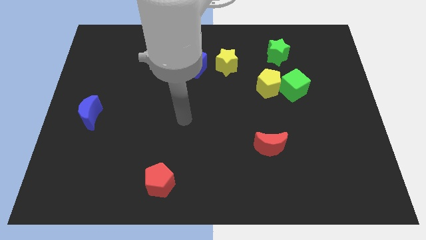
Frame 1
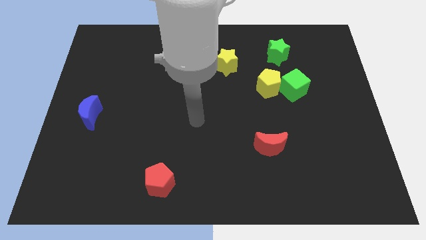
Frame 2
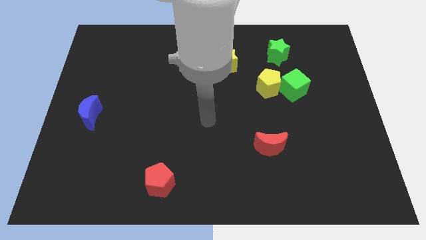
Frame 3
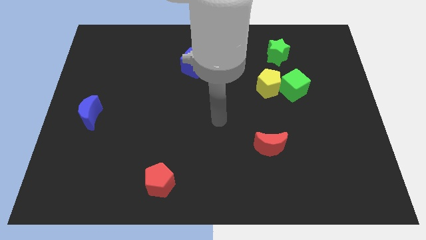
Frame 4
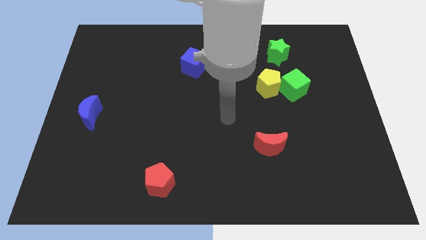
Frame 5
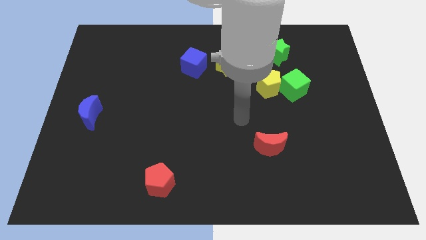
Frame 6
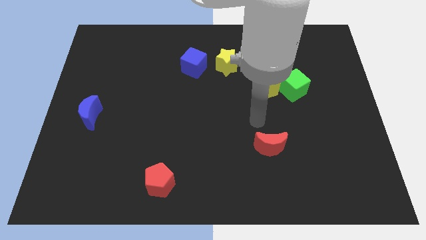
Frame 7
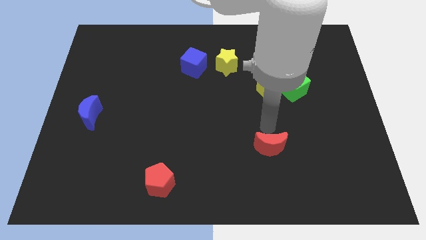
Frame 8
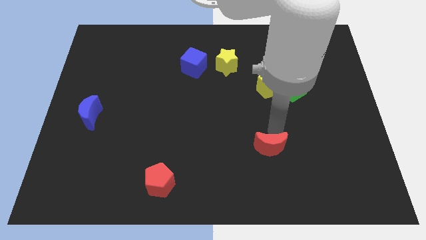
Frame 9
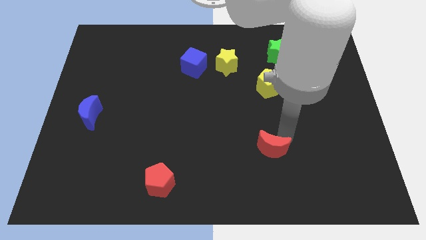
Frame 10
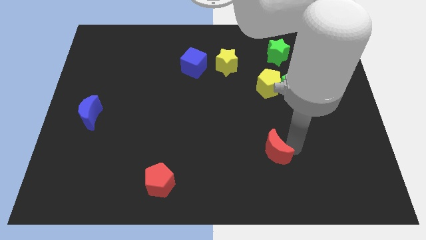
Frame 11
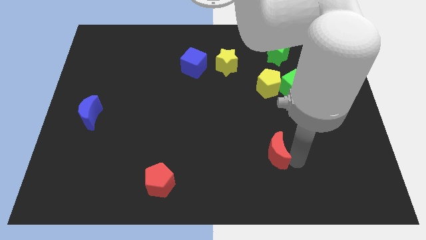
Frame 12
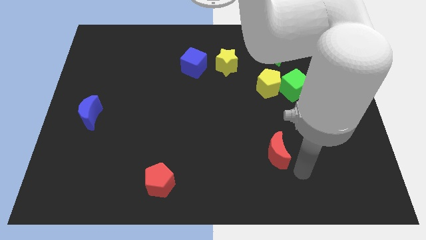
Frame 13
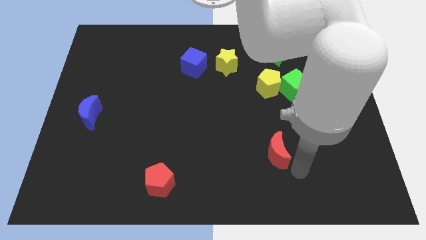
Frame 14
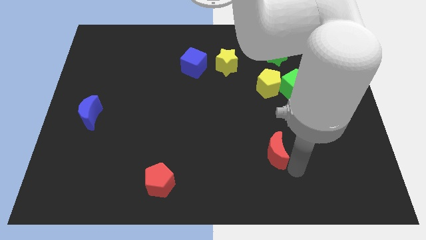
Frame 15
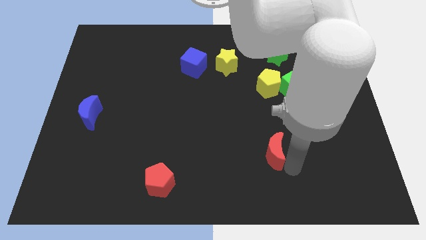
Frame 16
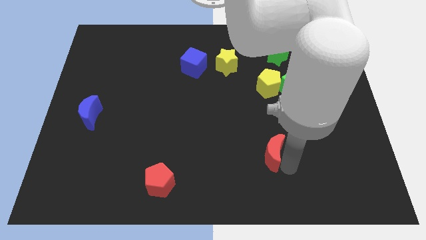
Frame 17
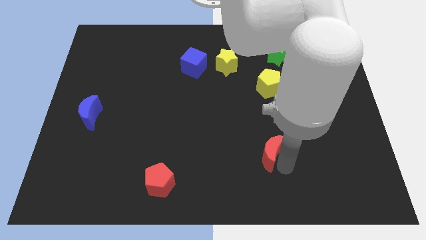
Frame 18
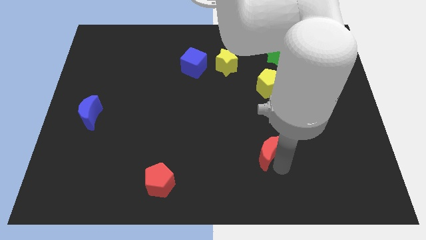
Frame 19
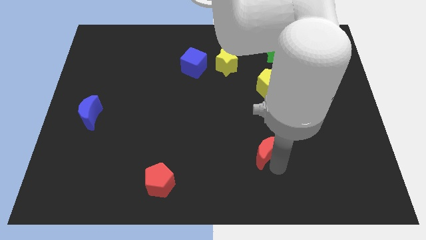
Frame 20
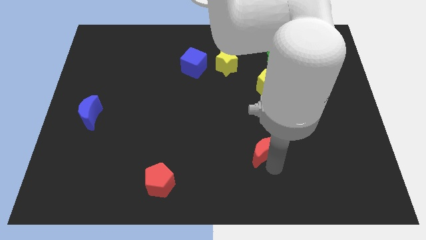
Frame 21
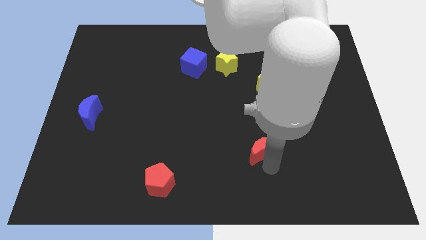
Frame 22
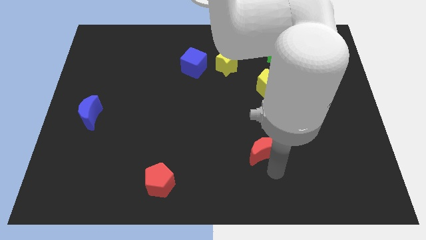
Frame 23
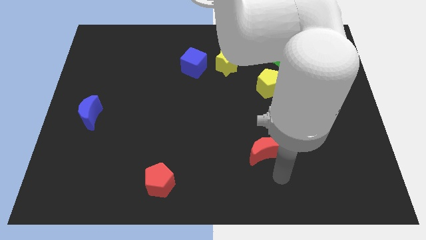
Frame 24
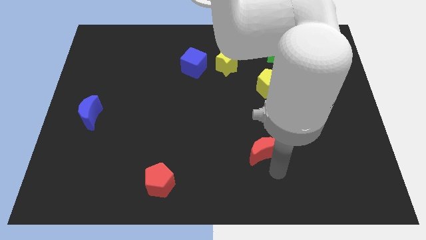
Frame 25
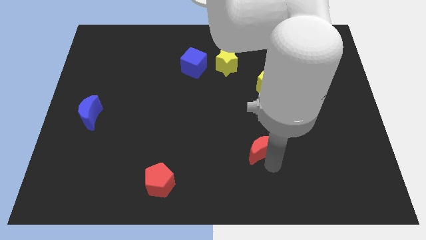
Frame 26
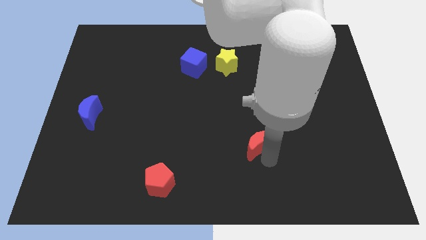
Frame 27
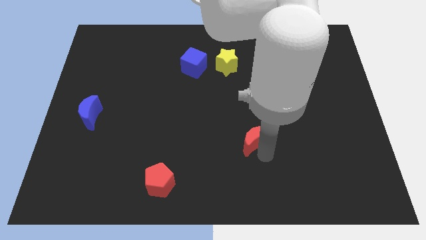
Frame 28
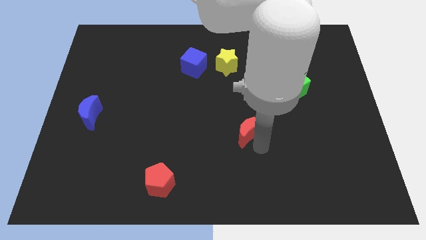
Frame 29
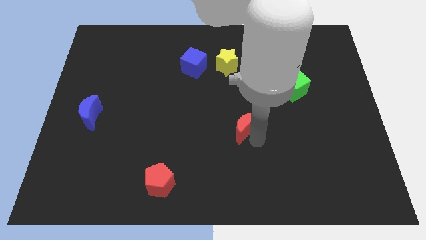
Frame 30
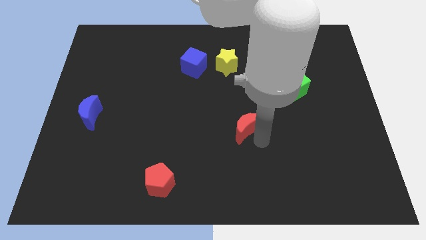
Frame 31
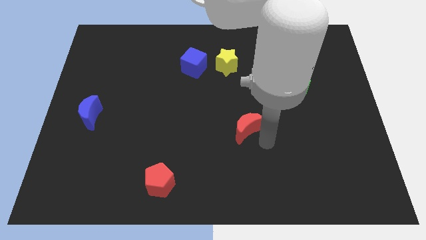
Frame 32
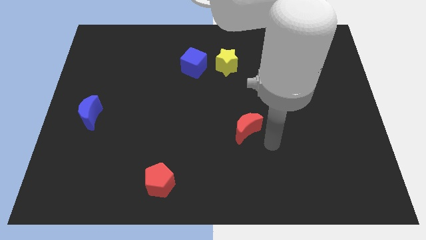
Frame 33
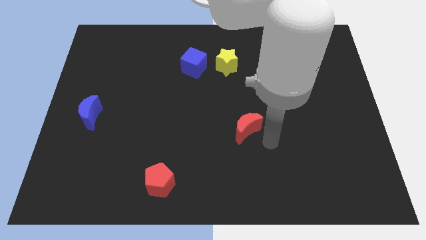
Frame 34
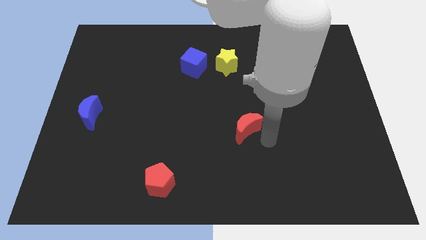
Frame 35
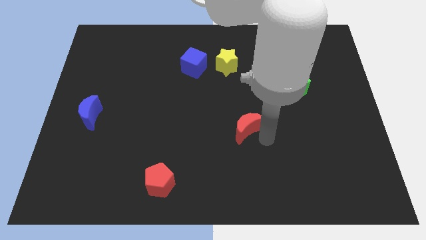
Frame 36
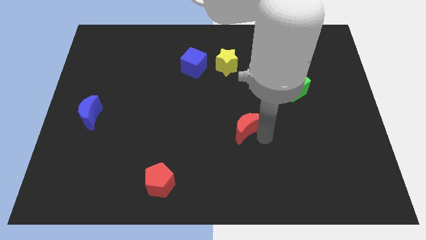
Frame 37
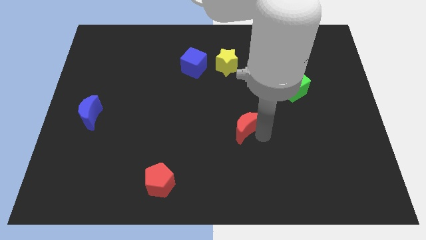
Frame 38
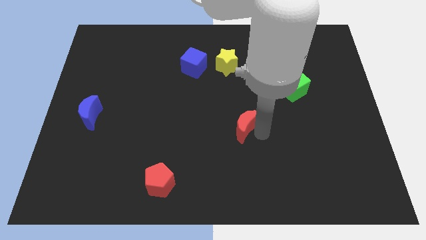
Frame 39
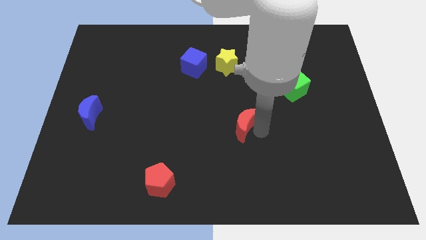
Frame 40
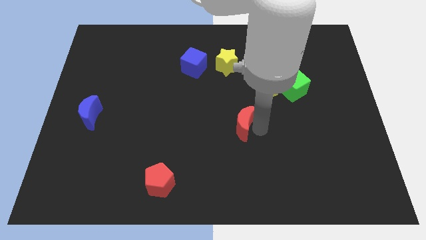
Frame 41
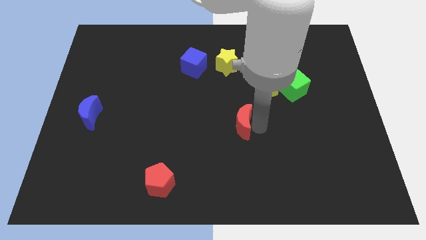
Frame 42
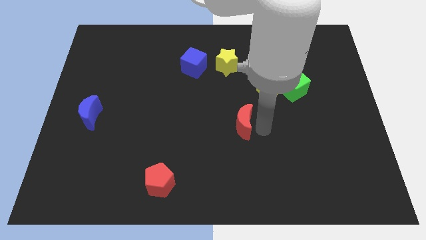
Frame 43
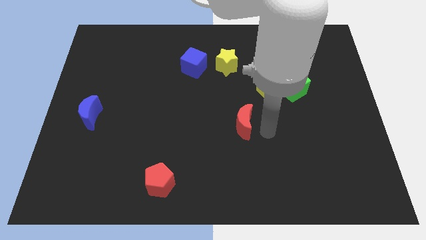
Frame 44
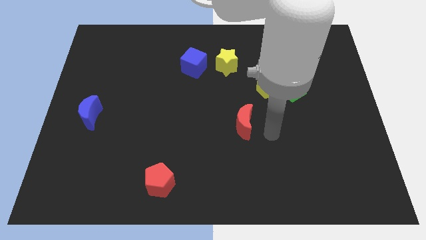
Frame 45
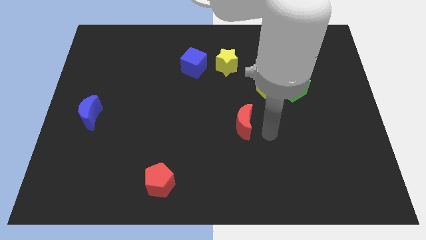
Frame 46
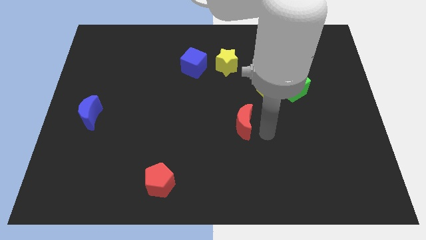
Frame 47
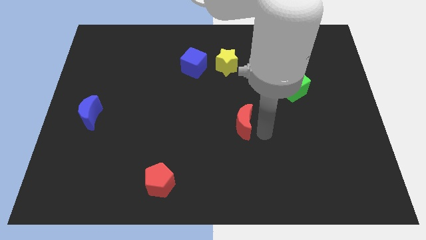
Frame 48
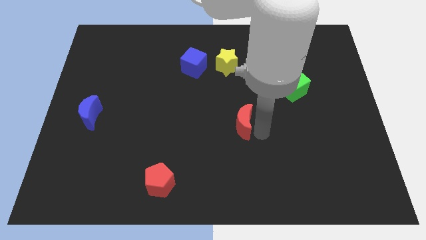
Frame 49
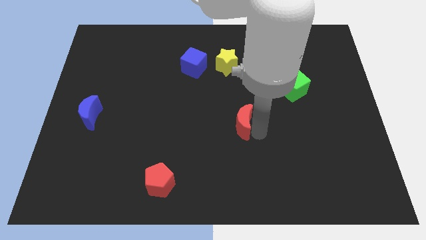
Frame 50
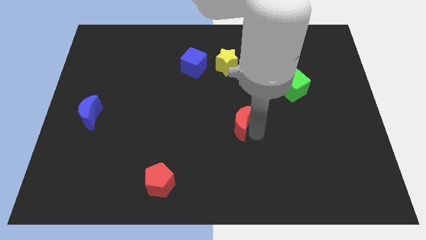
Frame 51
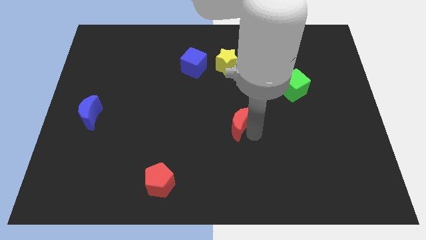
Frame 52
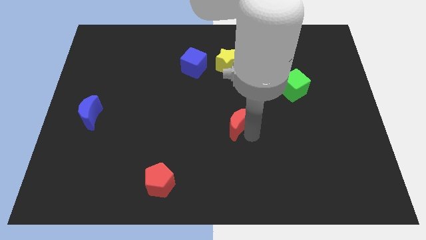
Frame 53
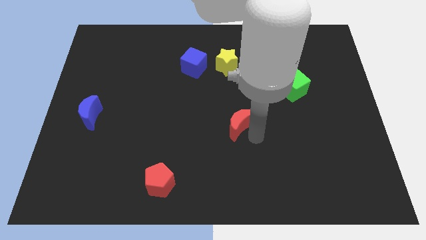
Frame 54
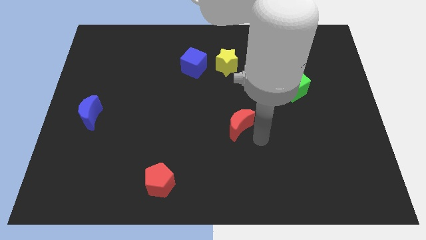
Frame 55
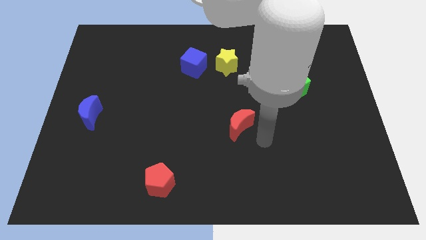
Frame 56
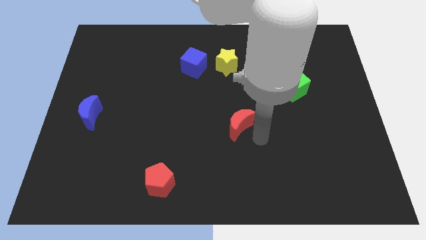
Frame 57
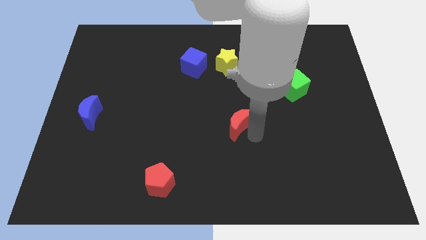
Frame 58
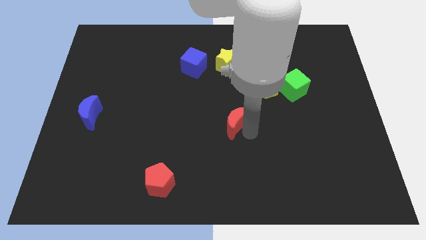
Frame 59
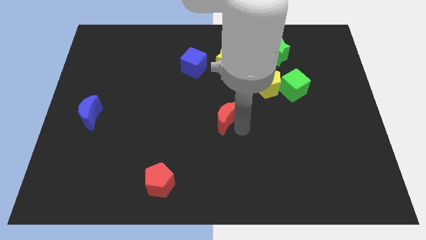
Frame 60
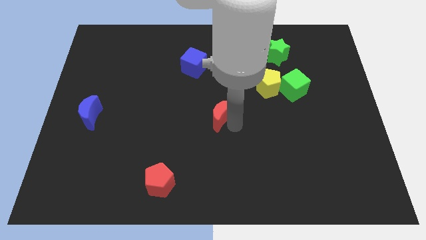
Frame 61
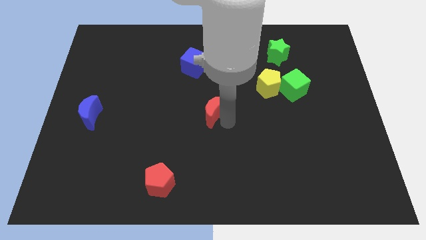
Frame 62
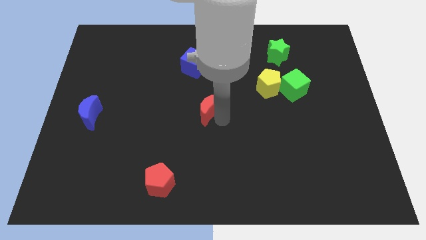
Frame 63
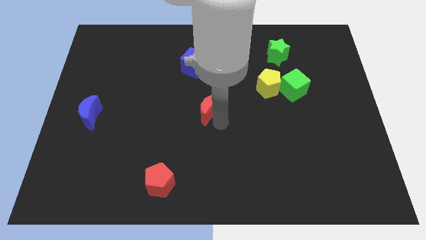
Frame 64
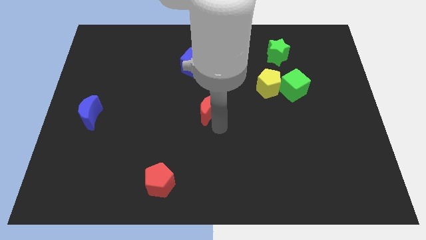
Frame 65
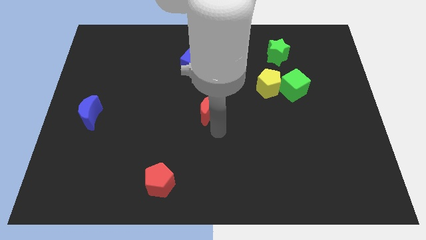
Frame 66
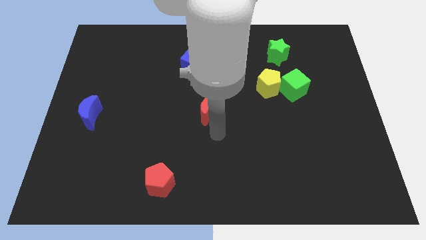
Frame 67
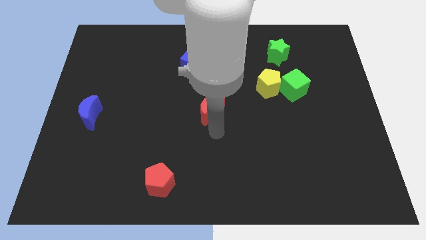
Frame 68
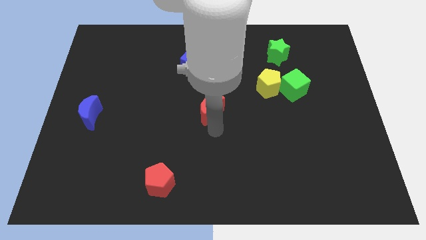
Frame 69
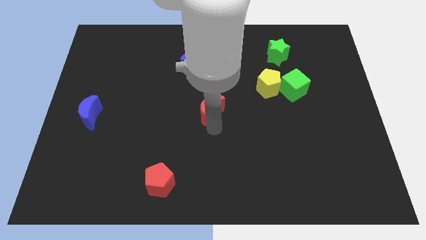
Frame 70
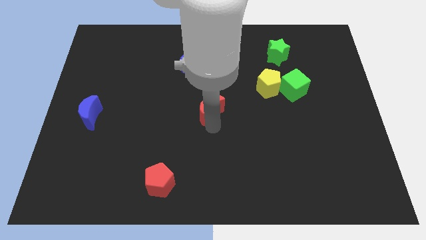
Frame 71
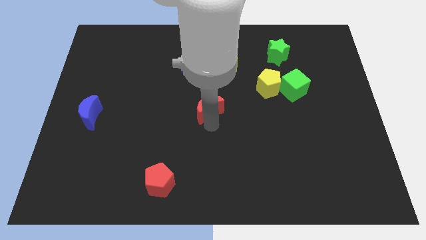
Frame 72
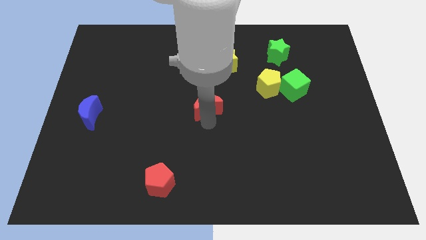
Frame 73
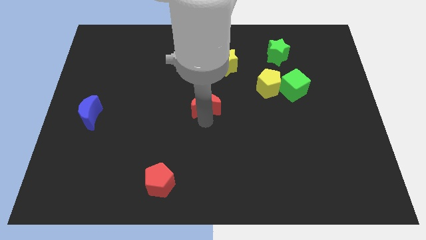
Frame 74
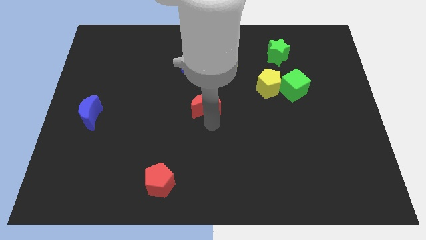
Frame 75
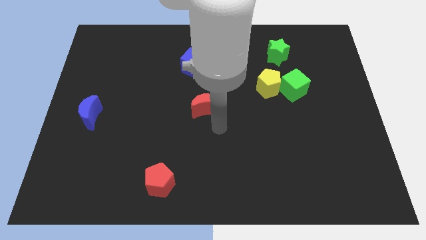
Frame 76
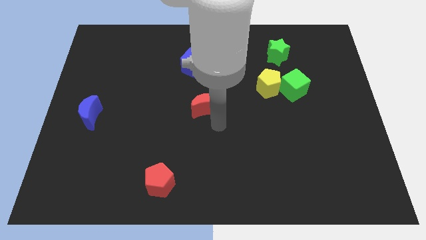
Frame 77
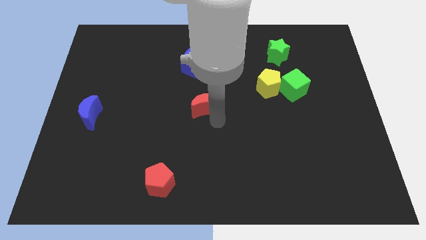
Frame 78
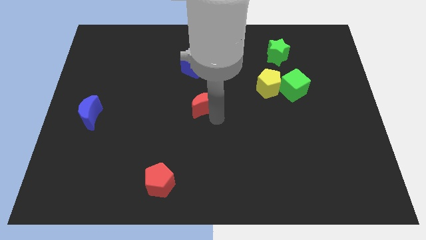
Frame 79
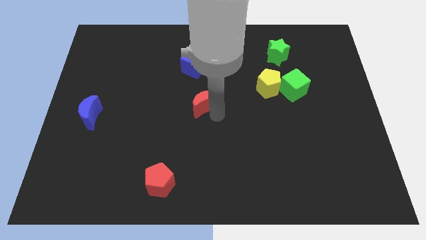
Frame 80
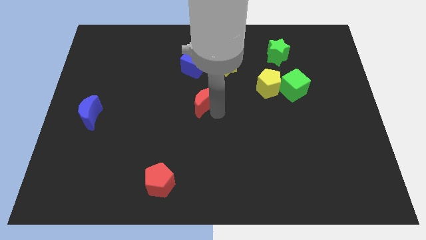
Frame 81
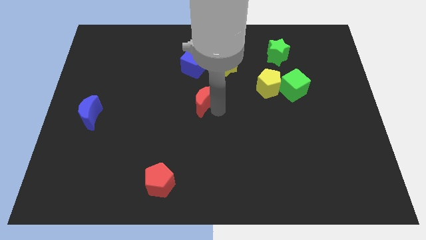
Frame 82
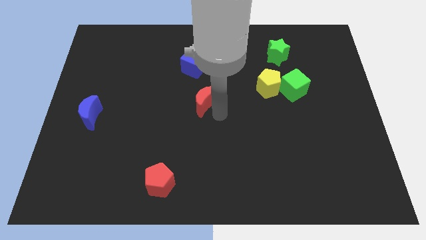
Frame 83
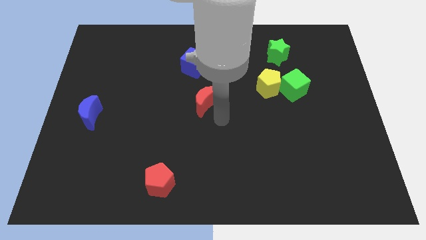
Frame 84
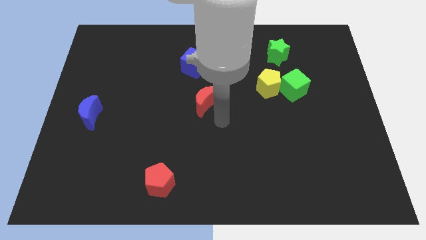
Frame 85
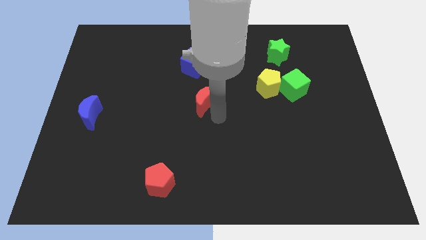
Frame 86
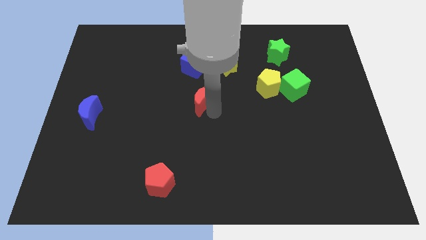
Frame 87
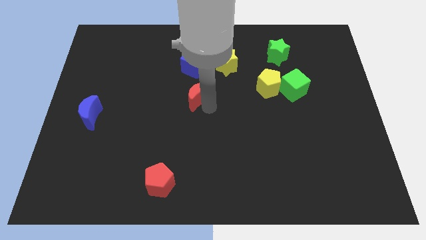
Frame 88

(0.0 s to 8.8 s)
slide the red moon up and then left
